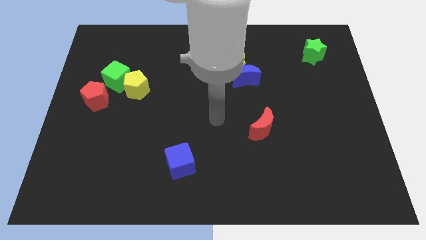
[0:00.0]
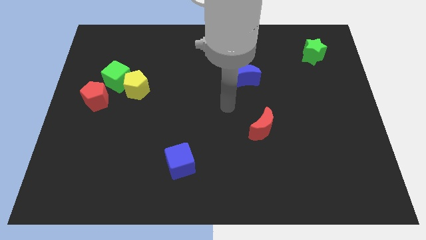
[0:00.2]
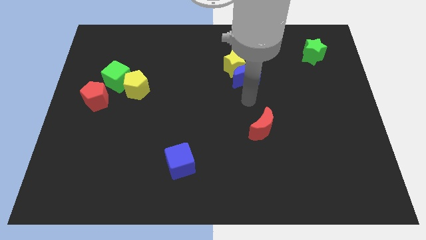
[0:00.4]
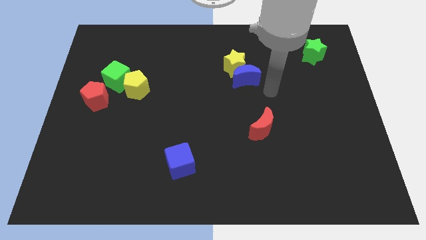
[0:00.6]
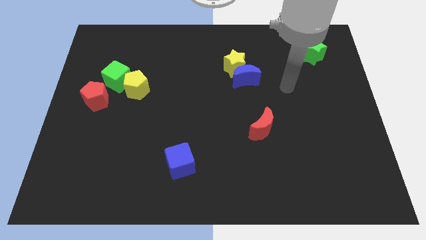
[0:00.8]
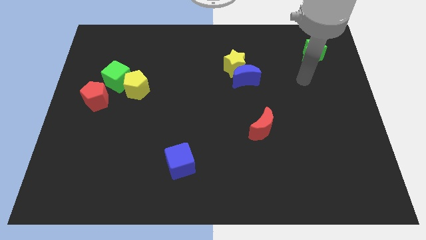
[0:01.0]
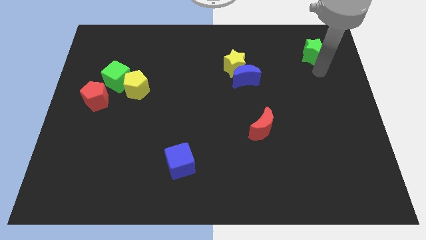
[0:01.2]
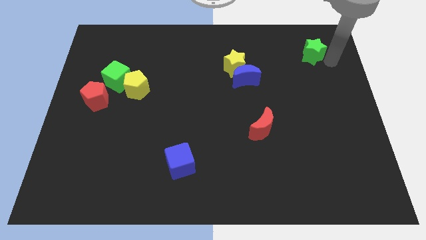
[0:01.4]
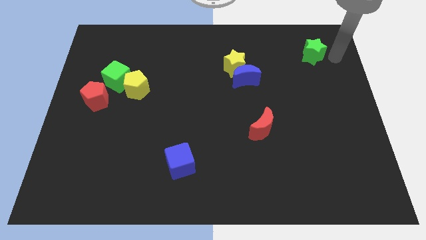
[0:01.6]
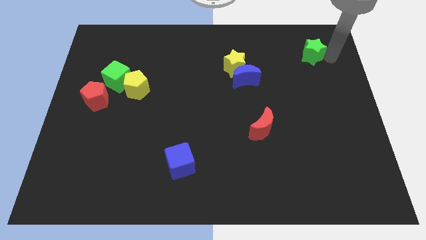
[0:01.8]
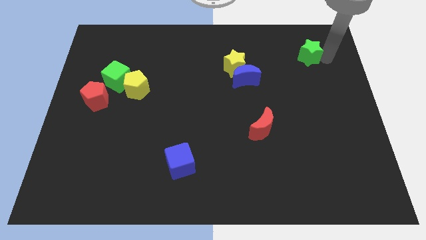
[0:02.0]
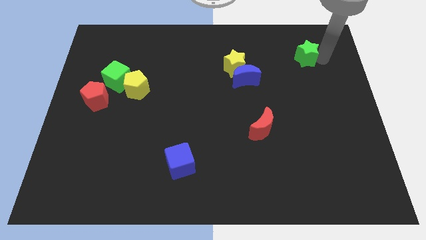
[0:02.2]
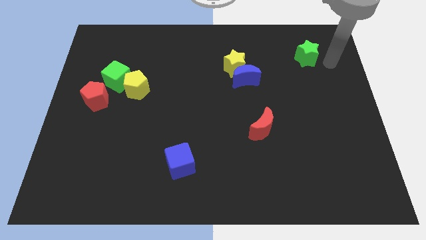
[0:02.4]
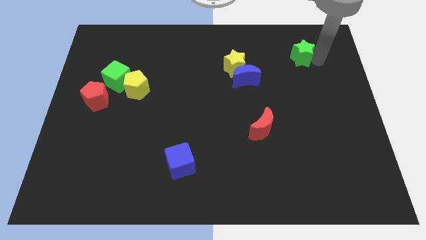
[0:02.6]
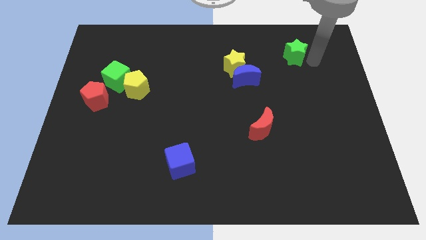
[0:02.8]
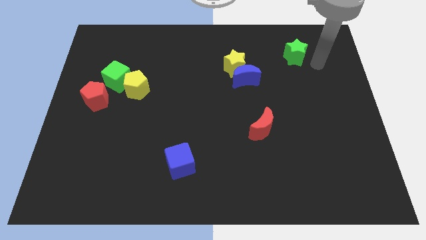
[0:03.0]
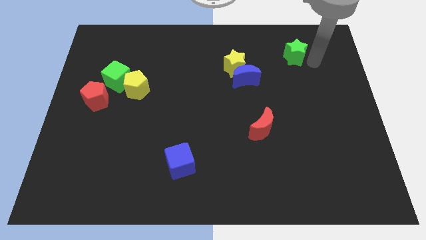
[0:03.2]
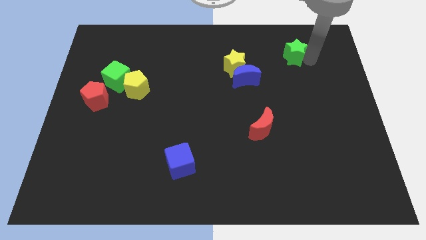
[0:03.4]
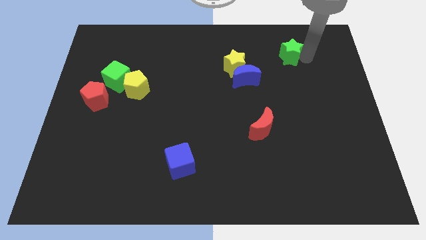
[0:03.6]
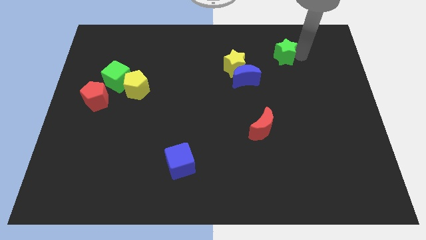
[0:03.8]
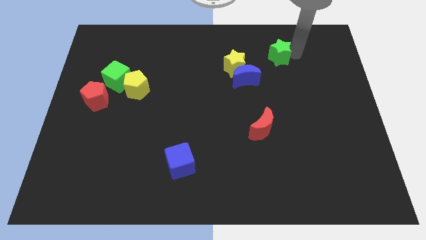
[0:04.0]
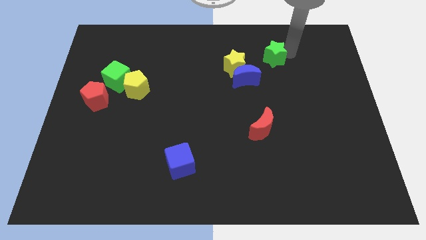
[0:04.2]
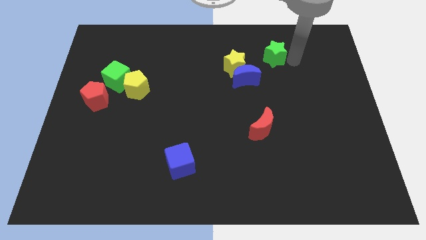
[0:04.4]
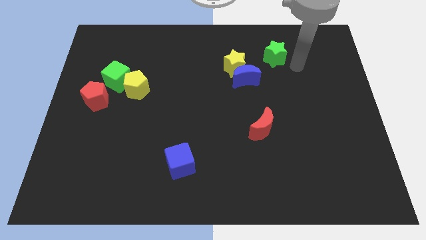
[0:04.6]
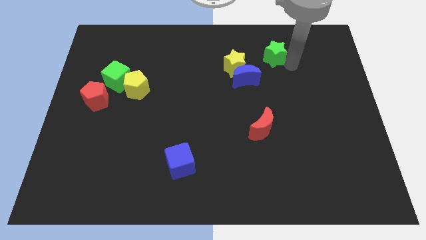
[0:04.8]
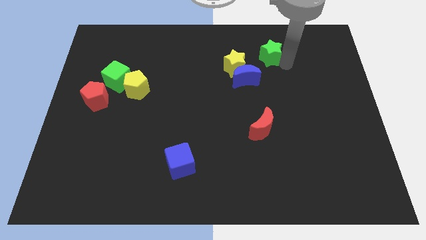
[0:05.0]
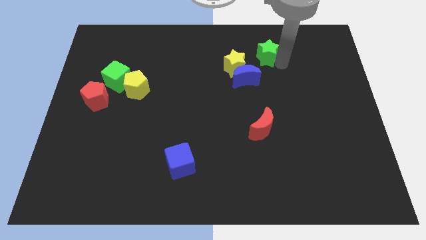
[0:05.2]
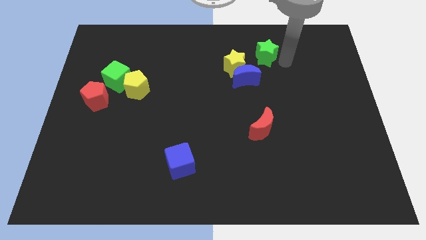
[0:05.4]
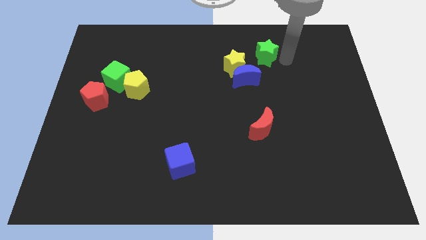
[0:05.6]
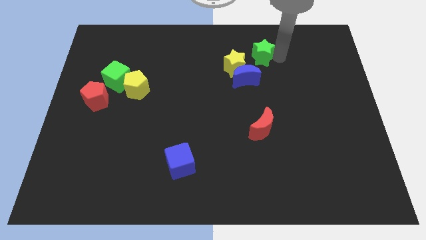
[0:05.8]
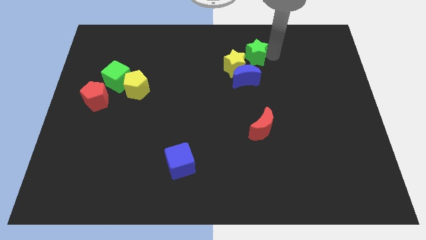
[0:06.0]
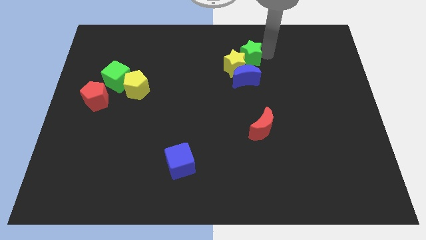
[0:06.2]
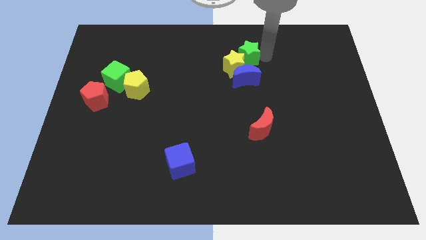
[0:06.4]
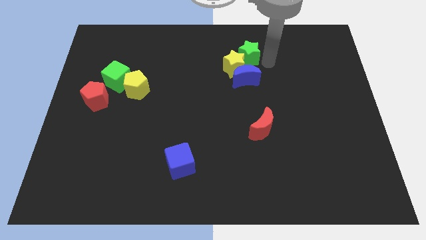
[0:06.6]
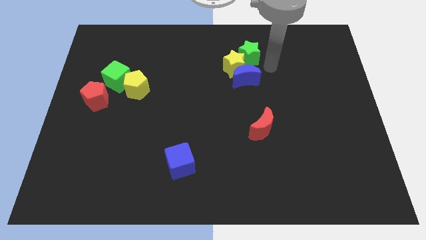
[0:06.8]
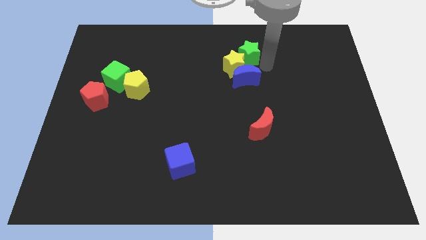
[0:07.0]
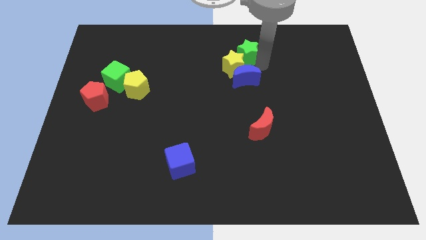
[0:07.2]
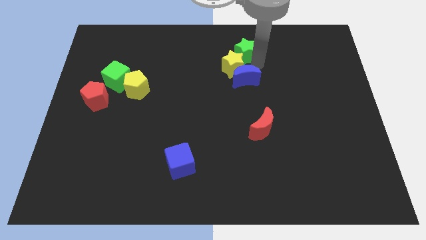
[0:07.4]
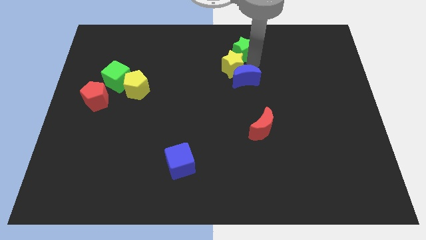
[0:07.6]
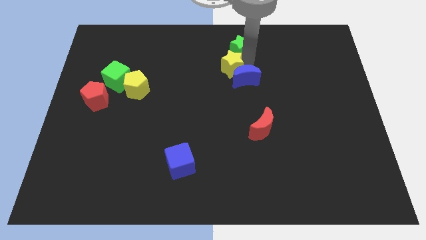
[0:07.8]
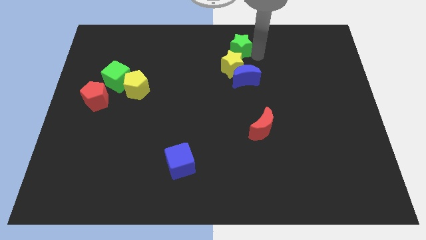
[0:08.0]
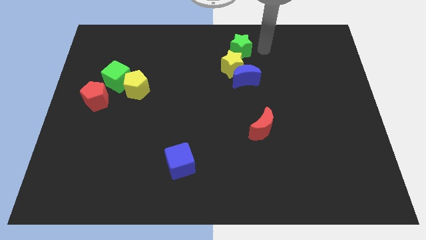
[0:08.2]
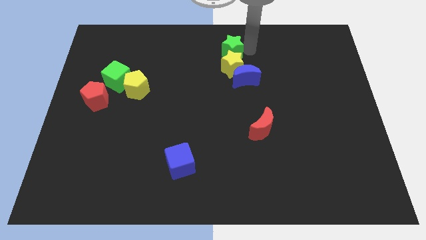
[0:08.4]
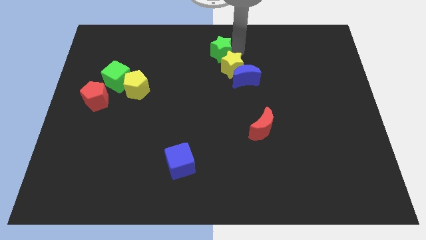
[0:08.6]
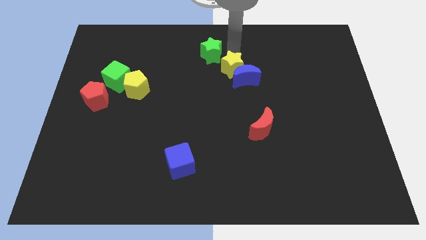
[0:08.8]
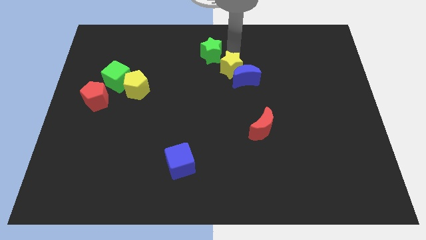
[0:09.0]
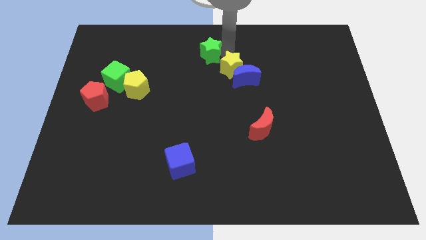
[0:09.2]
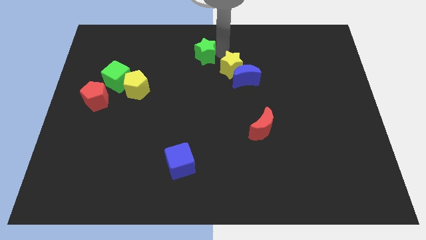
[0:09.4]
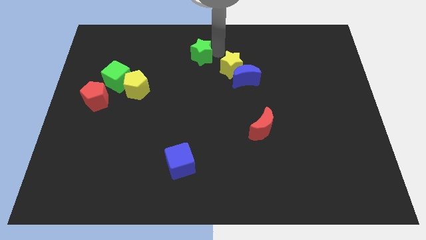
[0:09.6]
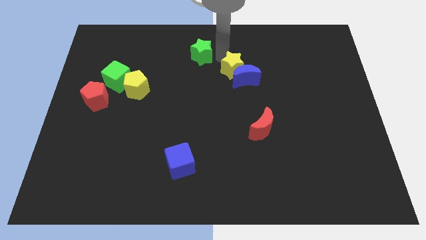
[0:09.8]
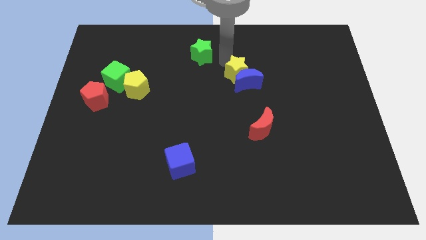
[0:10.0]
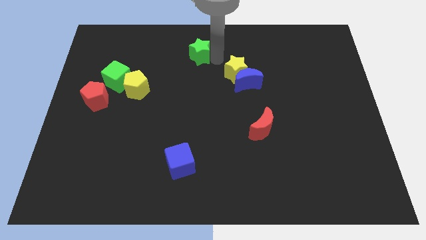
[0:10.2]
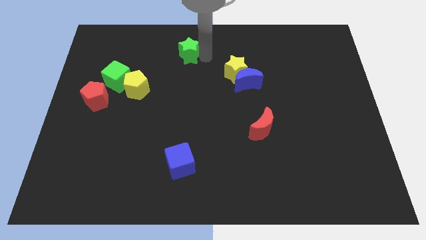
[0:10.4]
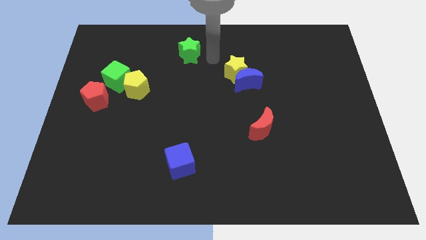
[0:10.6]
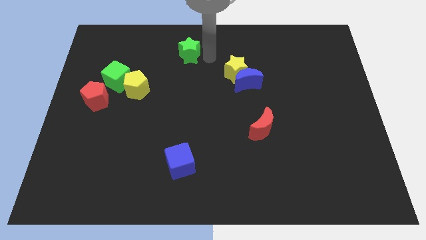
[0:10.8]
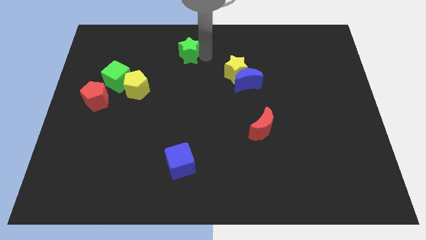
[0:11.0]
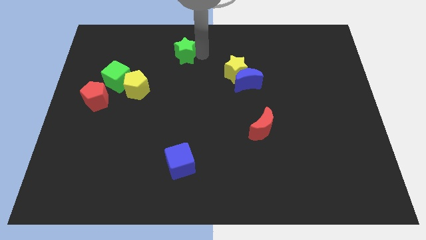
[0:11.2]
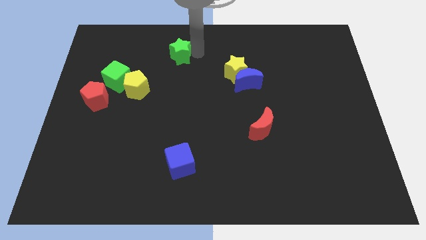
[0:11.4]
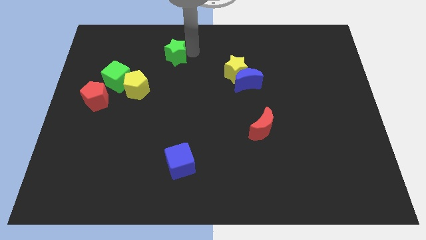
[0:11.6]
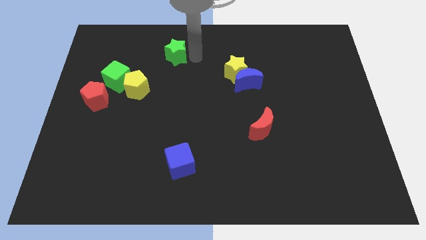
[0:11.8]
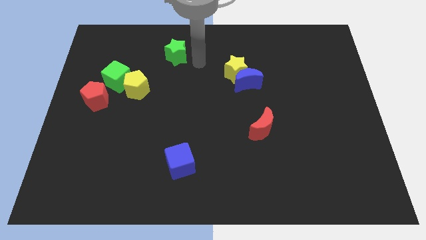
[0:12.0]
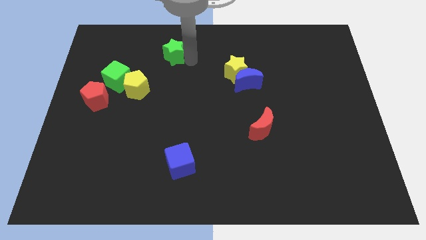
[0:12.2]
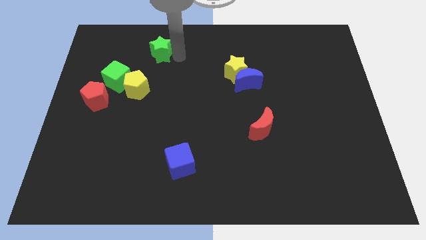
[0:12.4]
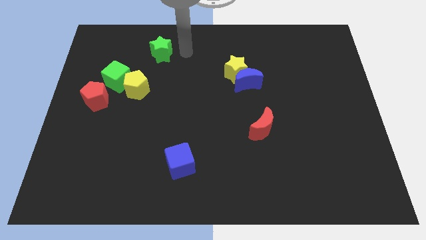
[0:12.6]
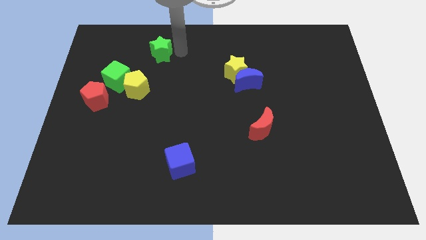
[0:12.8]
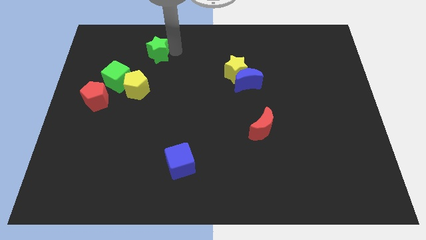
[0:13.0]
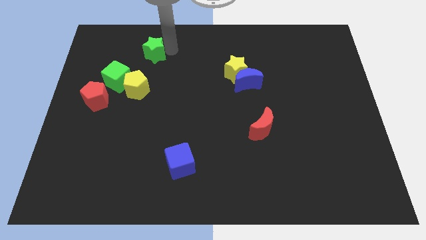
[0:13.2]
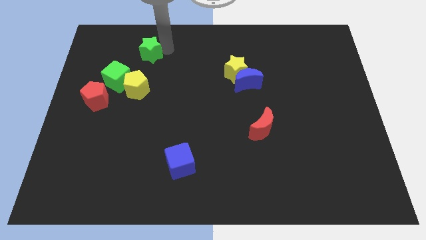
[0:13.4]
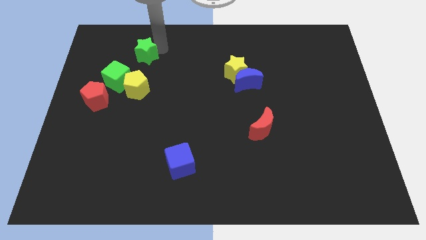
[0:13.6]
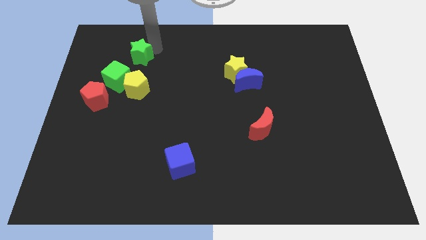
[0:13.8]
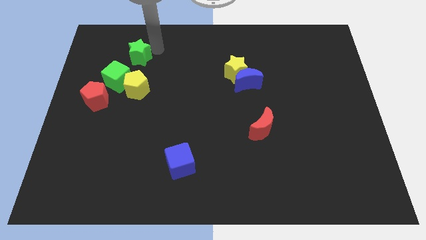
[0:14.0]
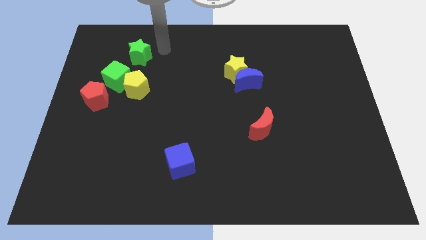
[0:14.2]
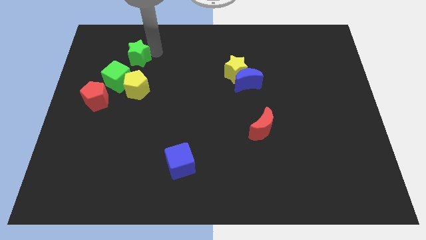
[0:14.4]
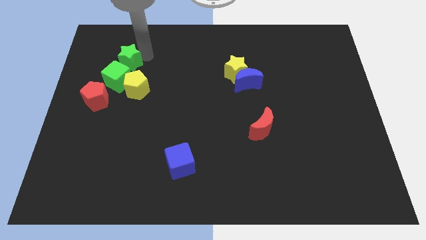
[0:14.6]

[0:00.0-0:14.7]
push the green star to the top left side of the yellow pentagon
